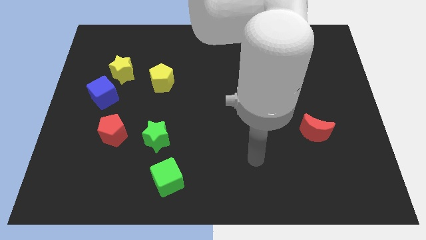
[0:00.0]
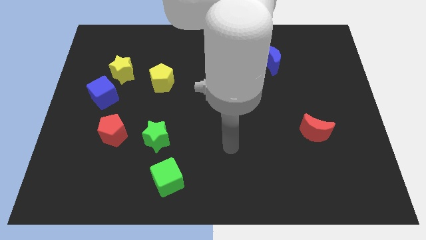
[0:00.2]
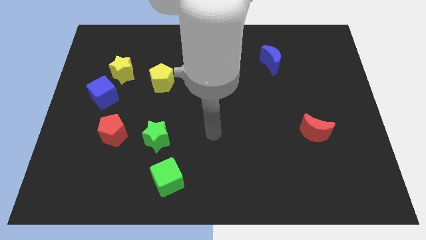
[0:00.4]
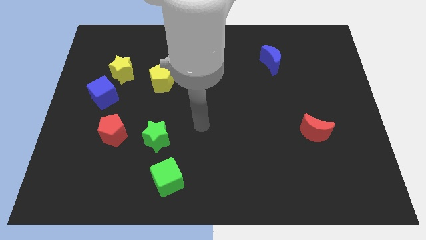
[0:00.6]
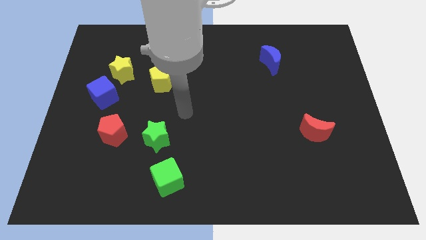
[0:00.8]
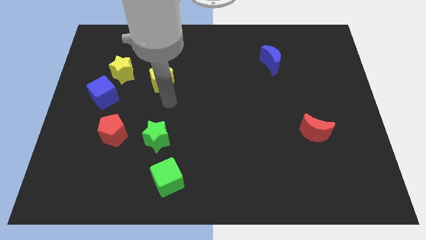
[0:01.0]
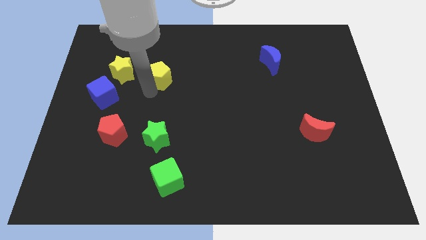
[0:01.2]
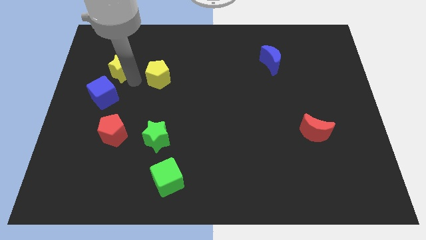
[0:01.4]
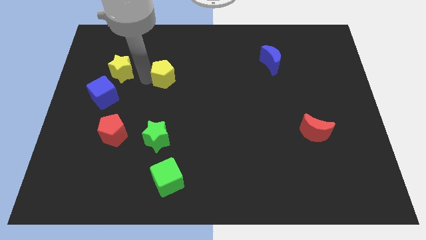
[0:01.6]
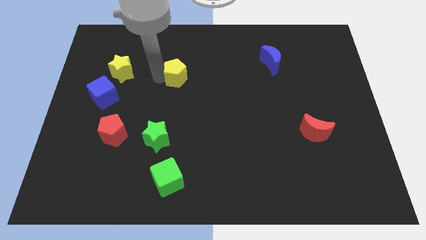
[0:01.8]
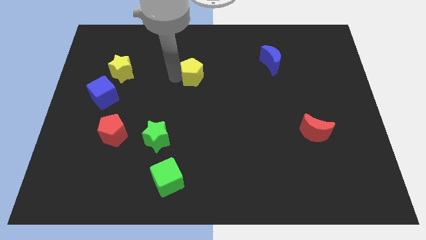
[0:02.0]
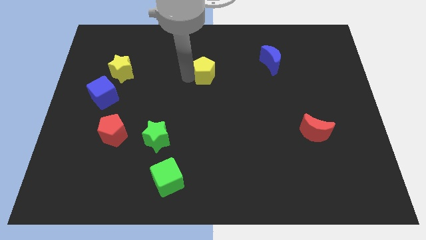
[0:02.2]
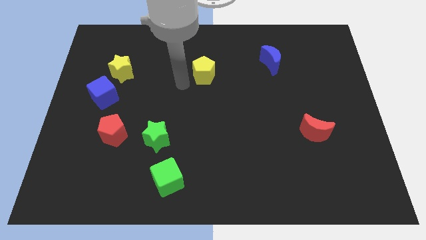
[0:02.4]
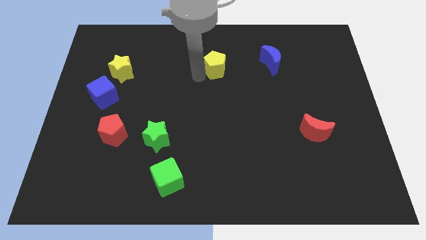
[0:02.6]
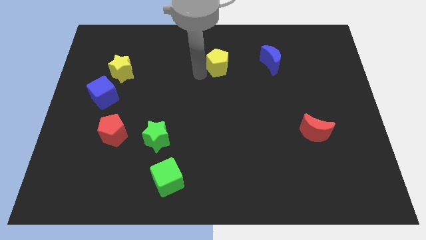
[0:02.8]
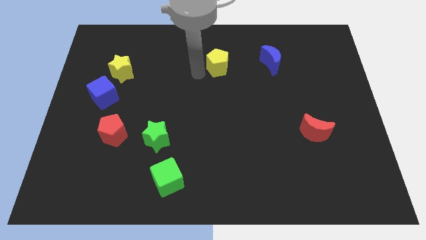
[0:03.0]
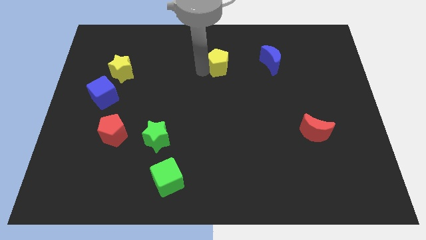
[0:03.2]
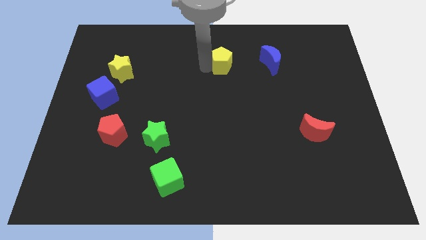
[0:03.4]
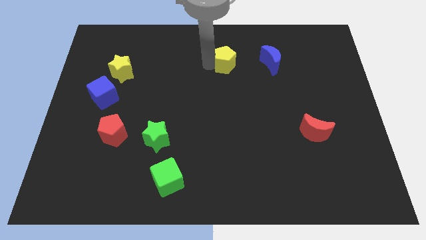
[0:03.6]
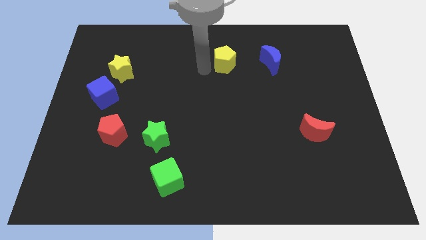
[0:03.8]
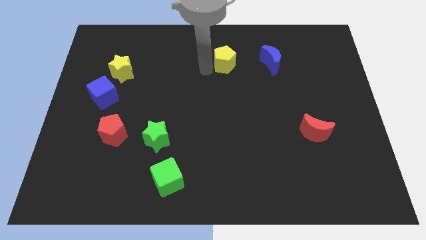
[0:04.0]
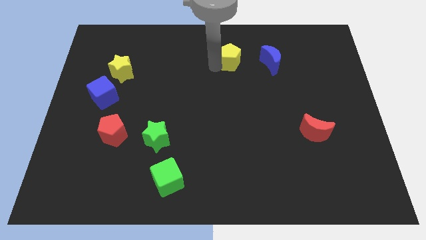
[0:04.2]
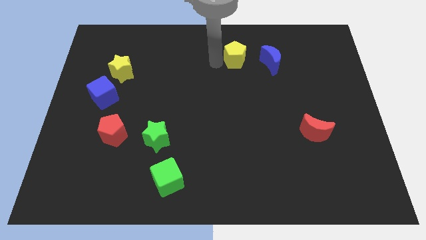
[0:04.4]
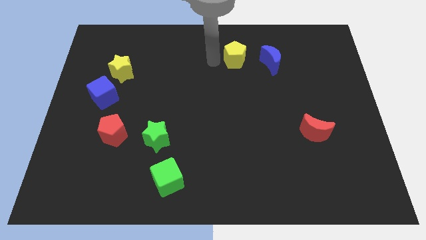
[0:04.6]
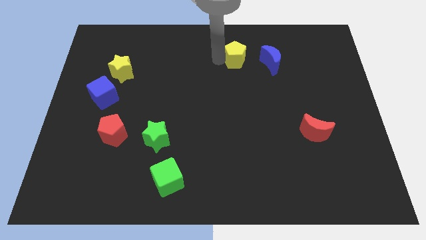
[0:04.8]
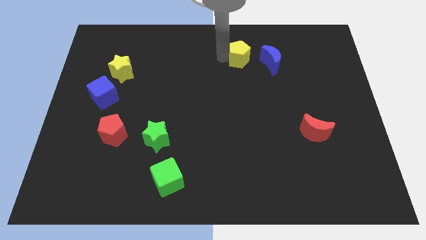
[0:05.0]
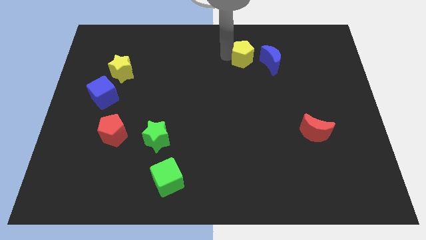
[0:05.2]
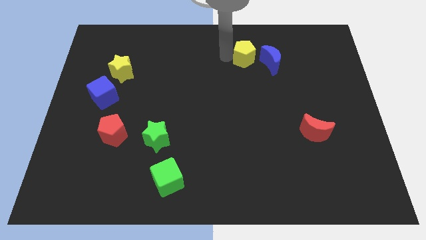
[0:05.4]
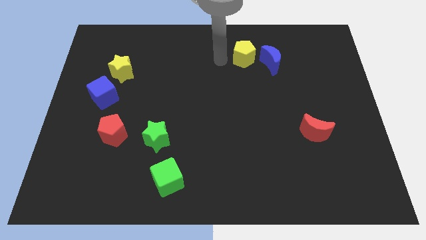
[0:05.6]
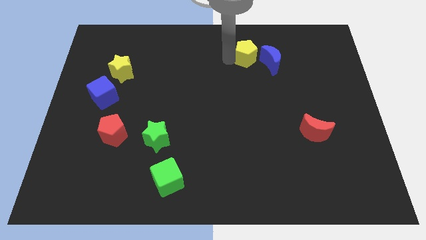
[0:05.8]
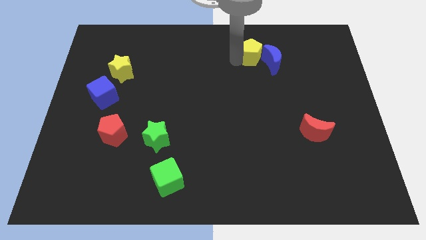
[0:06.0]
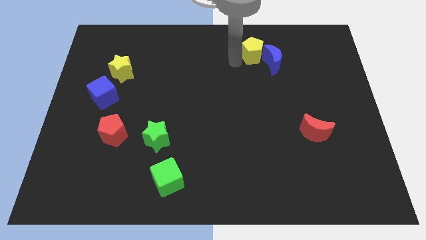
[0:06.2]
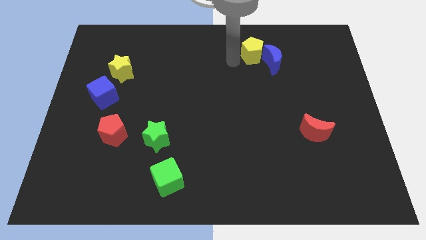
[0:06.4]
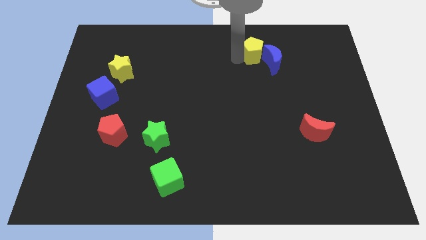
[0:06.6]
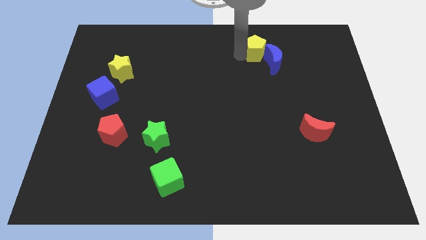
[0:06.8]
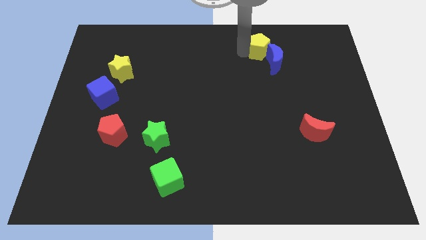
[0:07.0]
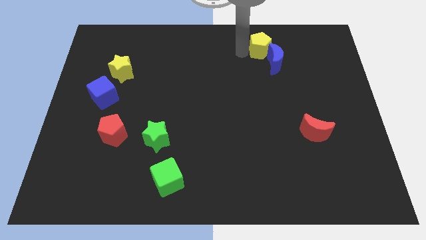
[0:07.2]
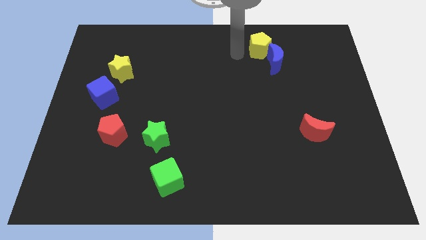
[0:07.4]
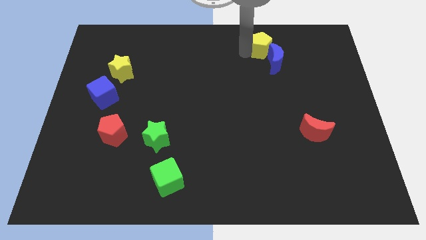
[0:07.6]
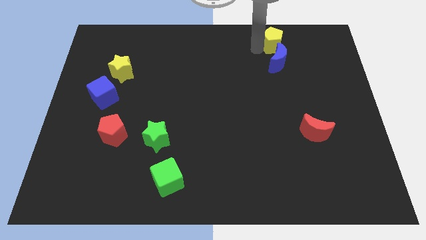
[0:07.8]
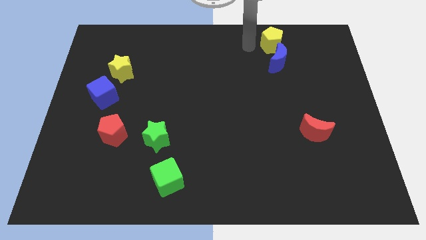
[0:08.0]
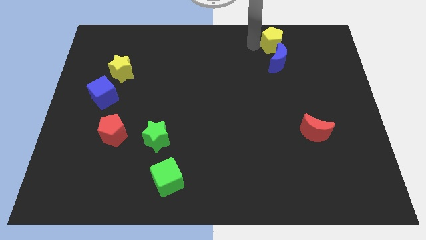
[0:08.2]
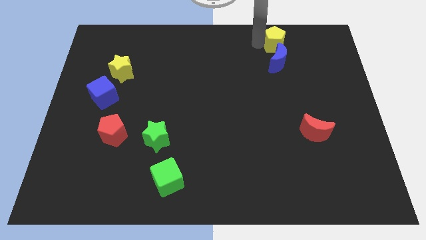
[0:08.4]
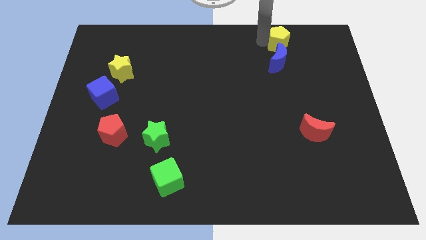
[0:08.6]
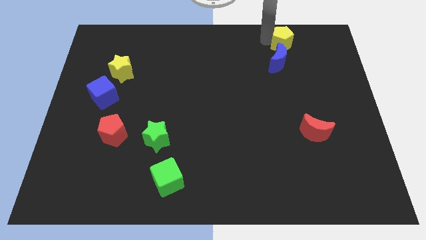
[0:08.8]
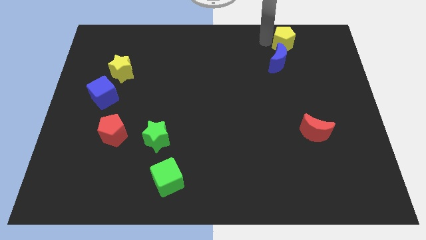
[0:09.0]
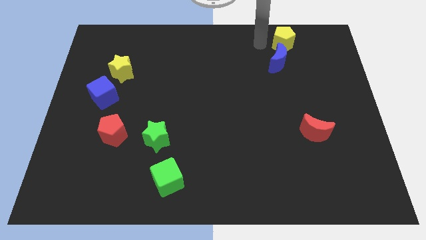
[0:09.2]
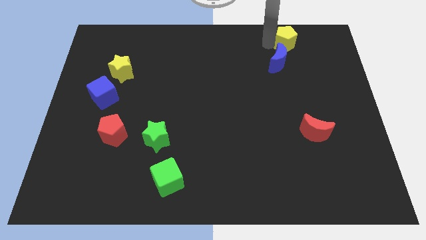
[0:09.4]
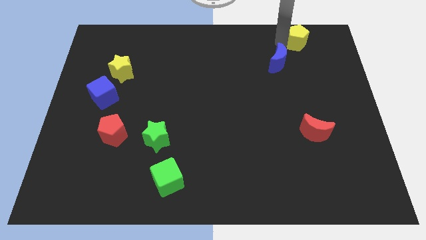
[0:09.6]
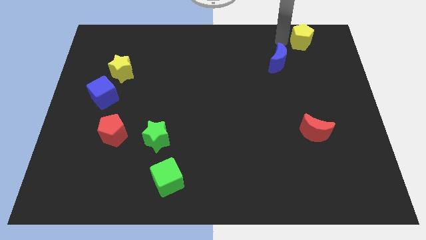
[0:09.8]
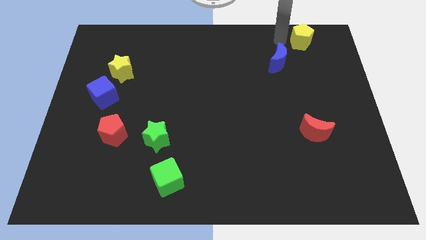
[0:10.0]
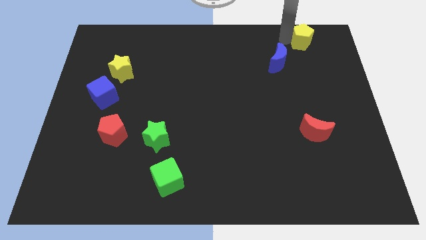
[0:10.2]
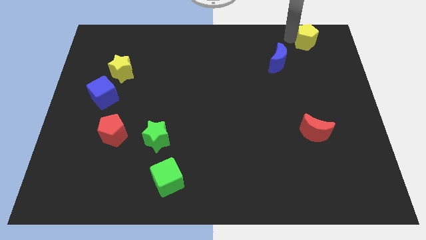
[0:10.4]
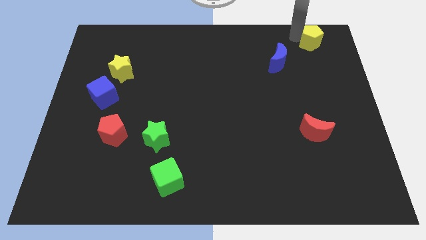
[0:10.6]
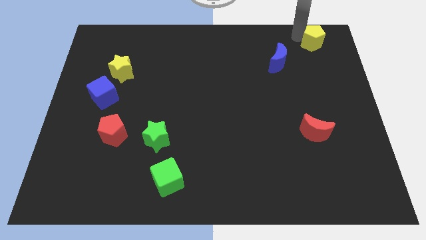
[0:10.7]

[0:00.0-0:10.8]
slide the yellow pentagon to the top right

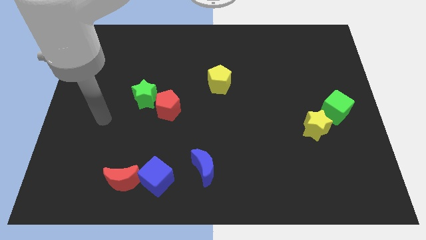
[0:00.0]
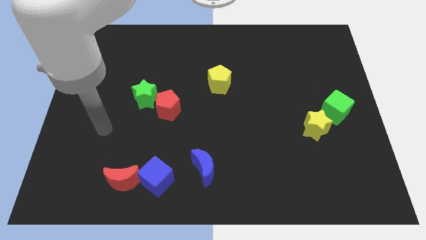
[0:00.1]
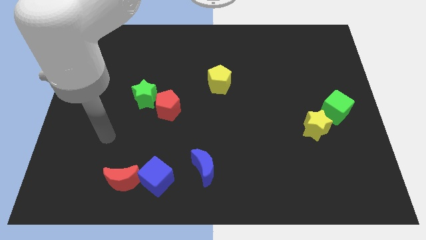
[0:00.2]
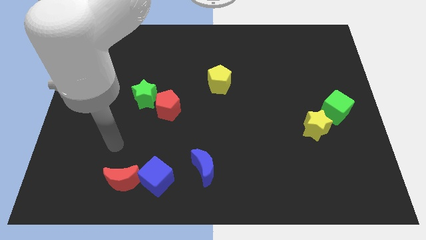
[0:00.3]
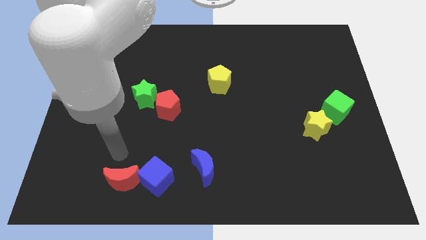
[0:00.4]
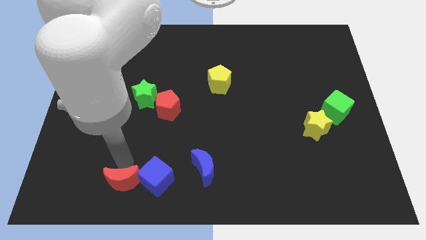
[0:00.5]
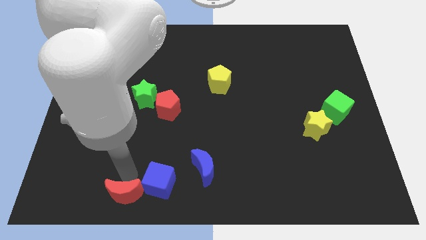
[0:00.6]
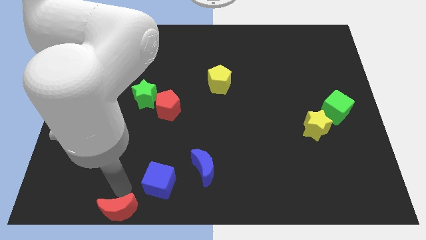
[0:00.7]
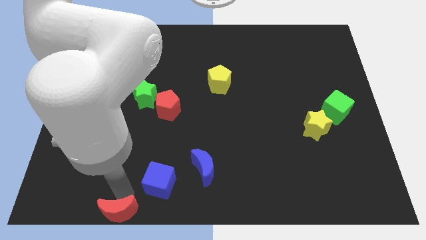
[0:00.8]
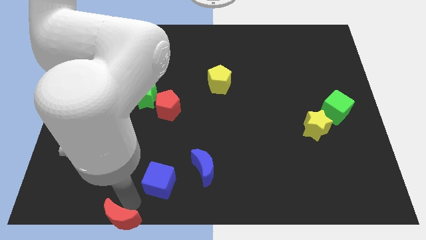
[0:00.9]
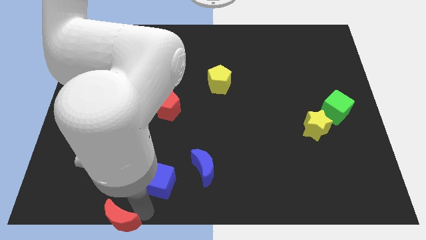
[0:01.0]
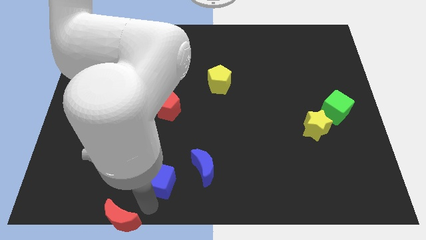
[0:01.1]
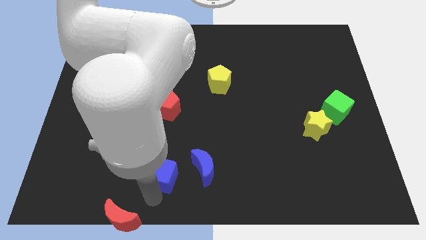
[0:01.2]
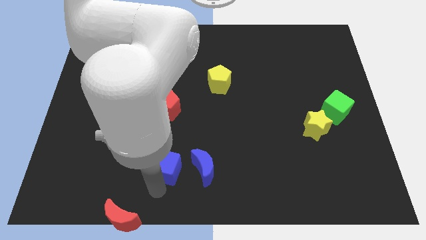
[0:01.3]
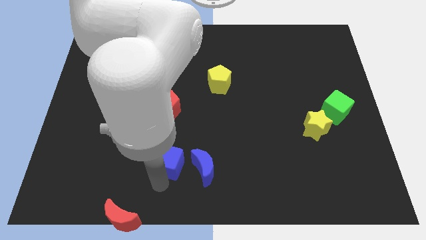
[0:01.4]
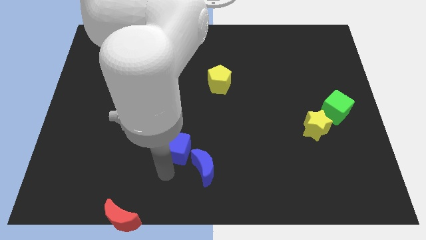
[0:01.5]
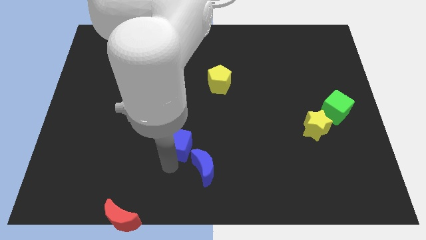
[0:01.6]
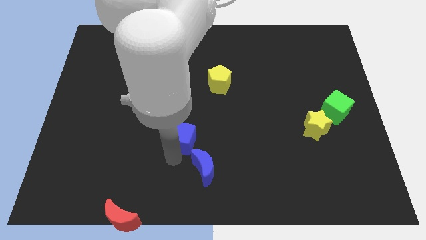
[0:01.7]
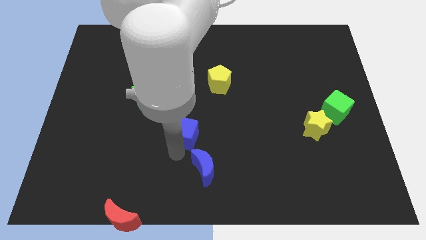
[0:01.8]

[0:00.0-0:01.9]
slide the blue cube to the center of the board
